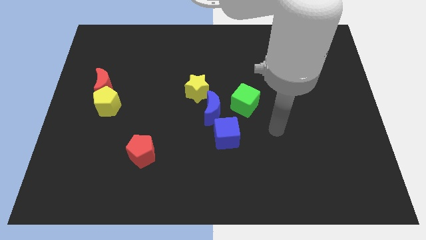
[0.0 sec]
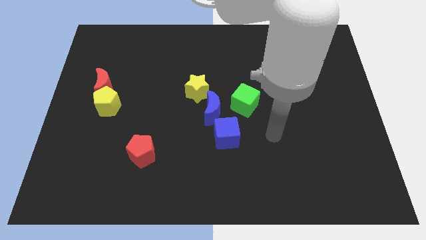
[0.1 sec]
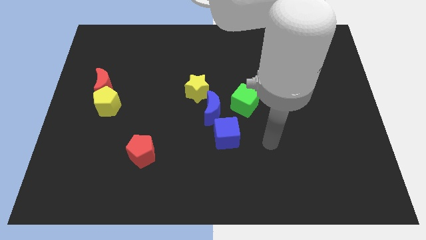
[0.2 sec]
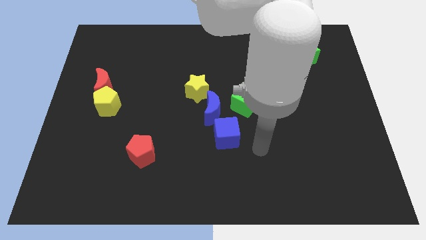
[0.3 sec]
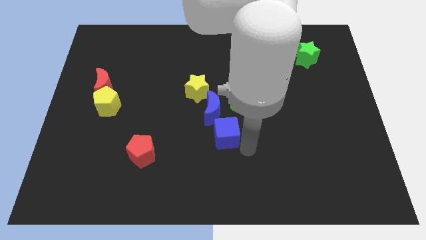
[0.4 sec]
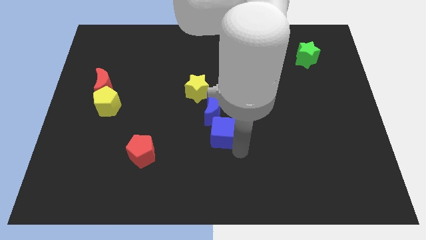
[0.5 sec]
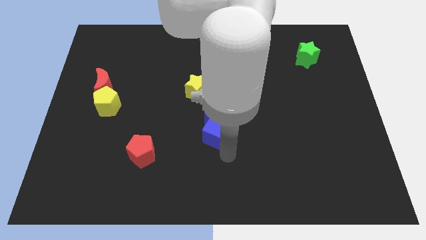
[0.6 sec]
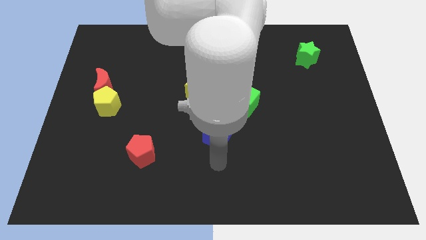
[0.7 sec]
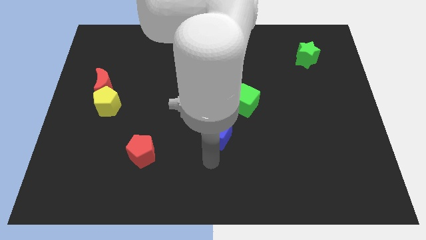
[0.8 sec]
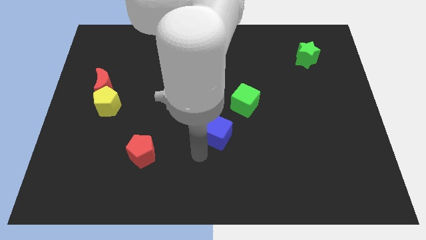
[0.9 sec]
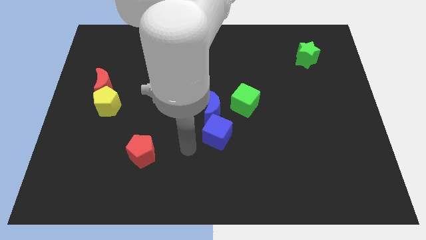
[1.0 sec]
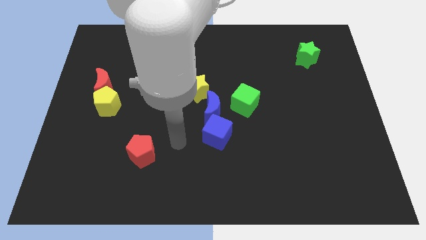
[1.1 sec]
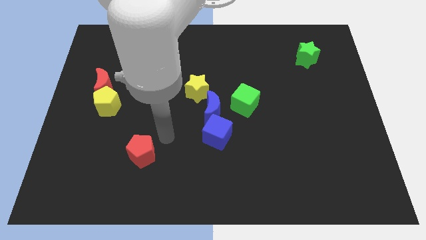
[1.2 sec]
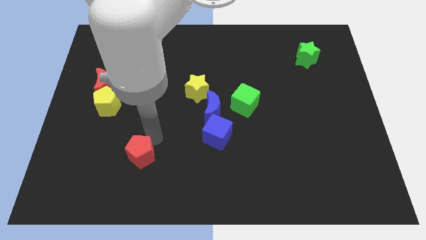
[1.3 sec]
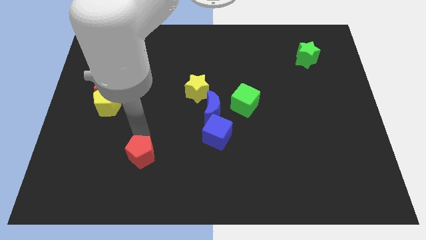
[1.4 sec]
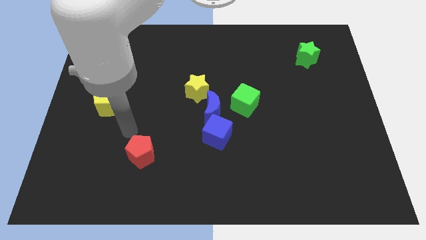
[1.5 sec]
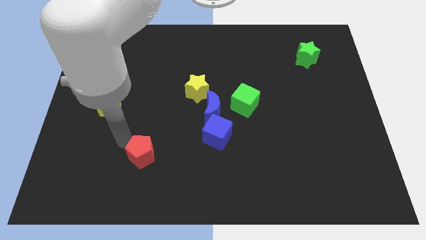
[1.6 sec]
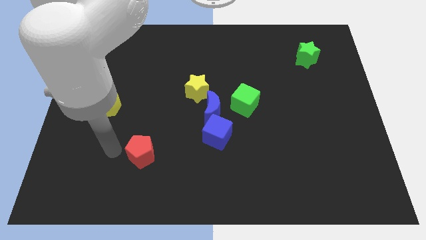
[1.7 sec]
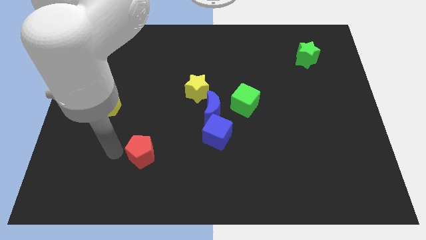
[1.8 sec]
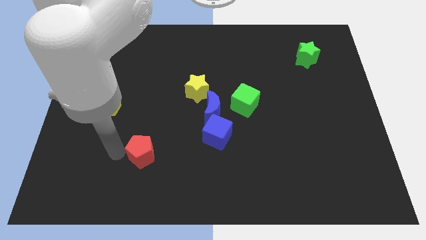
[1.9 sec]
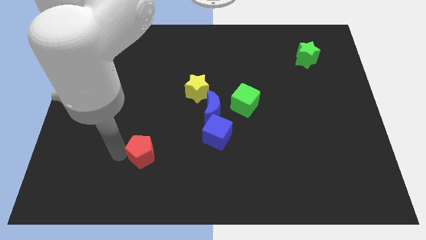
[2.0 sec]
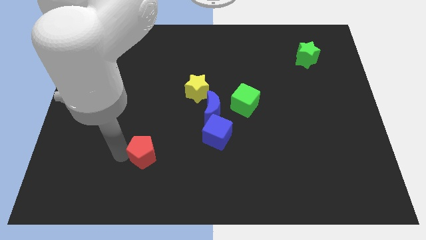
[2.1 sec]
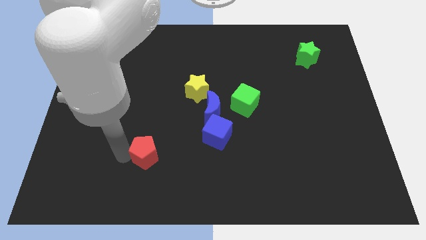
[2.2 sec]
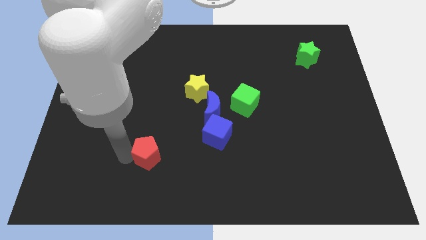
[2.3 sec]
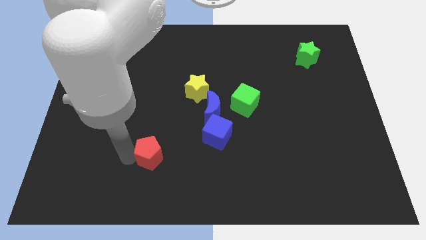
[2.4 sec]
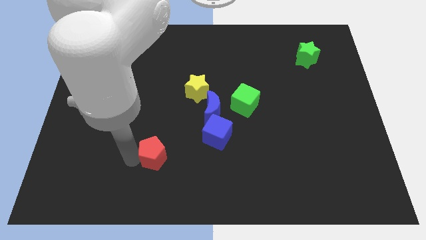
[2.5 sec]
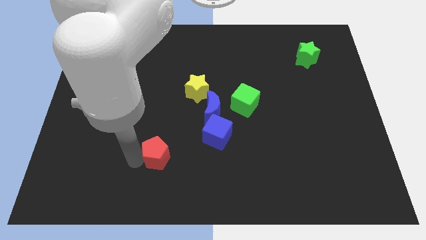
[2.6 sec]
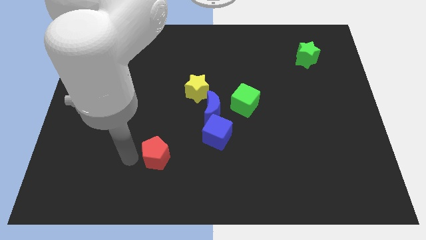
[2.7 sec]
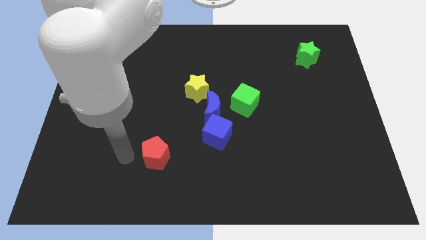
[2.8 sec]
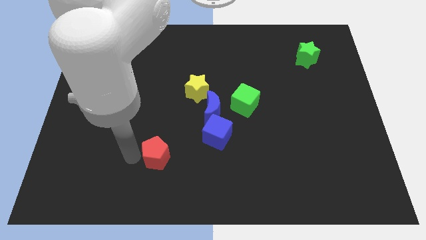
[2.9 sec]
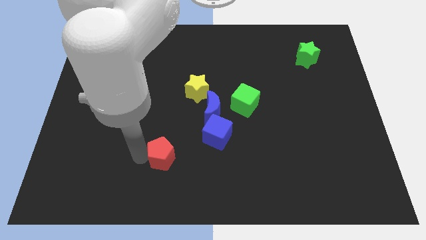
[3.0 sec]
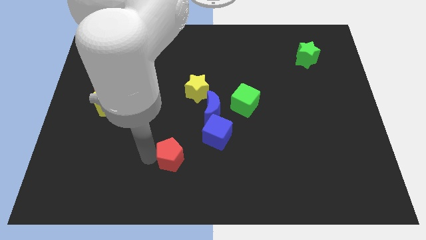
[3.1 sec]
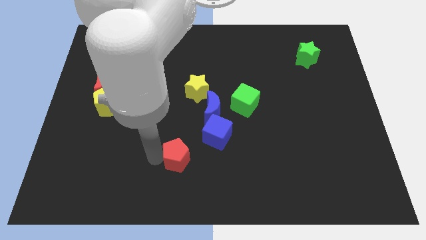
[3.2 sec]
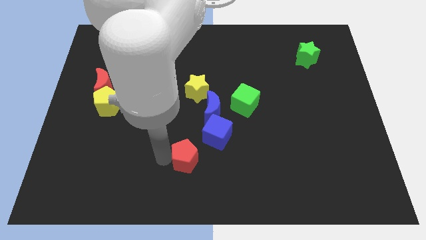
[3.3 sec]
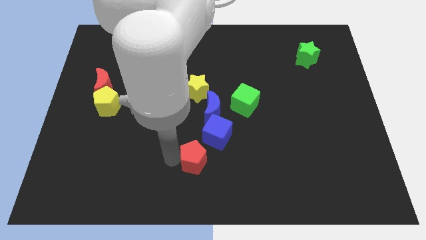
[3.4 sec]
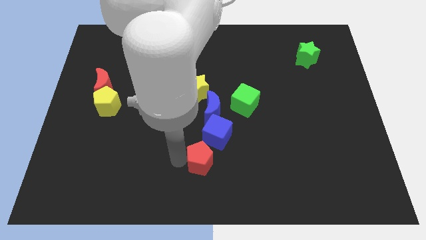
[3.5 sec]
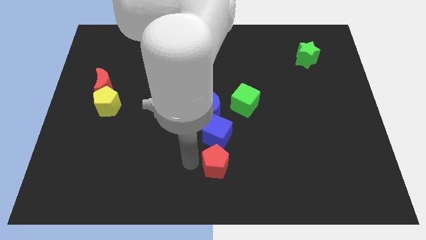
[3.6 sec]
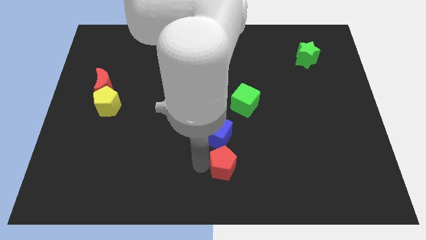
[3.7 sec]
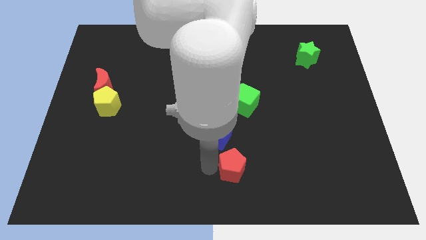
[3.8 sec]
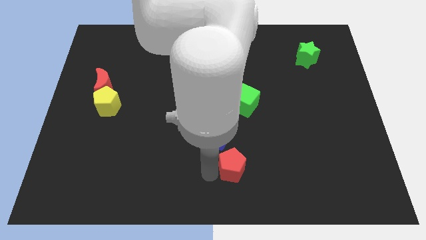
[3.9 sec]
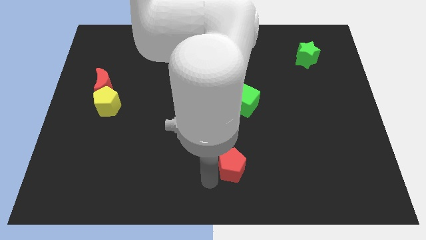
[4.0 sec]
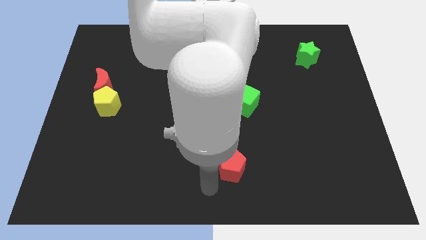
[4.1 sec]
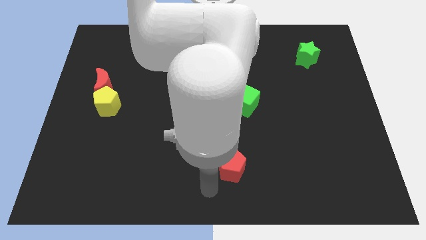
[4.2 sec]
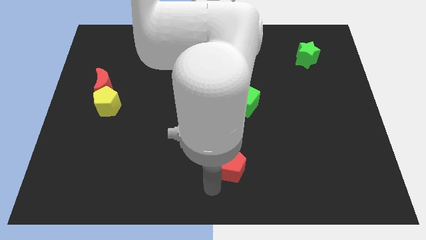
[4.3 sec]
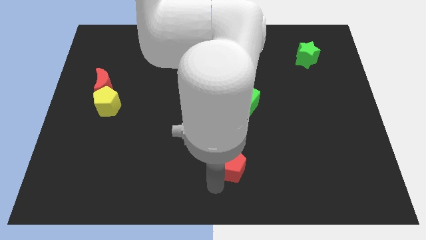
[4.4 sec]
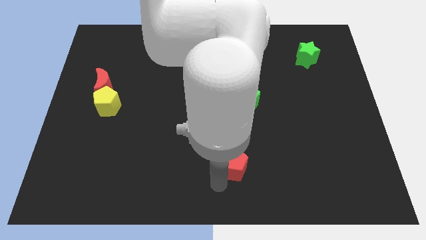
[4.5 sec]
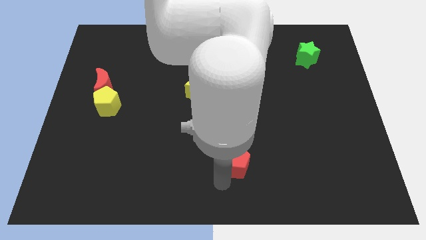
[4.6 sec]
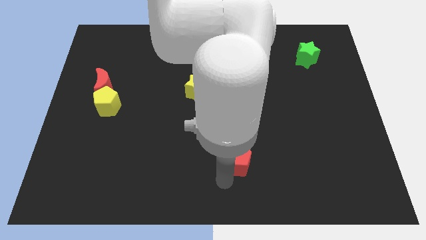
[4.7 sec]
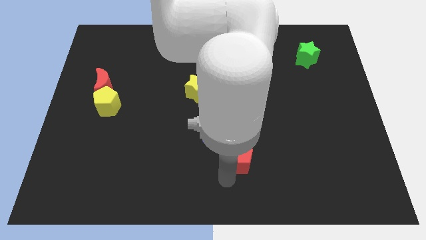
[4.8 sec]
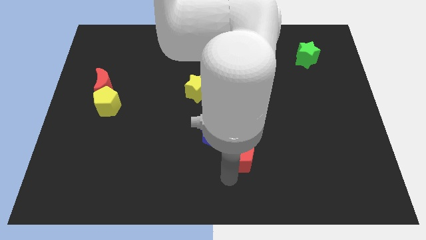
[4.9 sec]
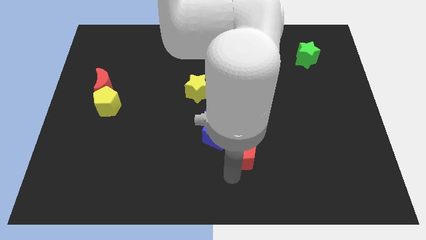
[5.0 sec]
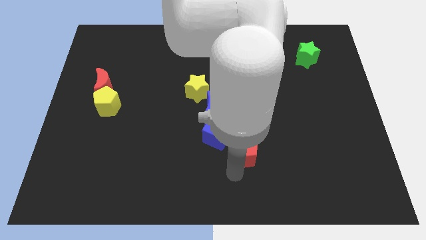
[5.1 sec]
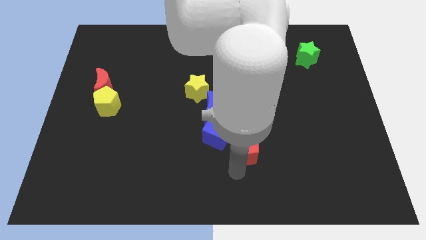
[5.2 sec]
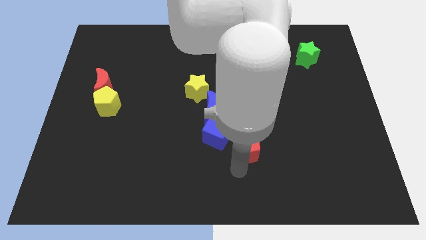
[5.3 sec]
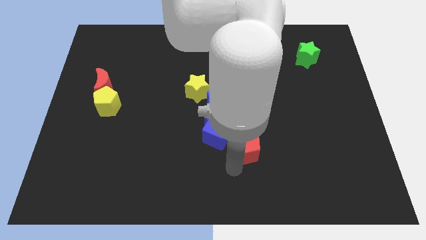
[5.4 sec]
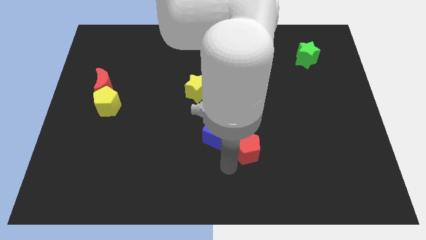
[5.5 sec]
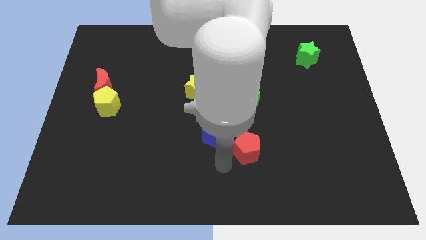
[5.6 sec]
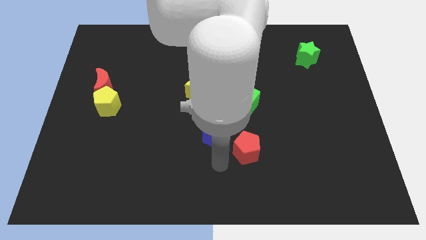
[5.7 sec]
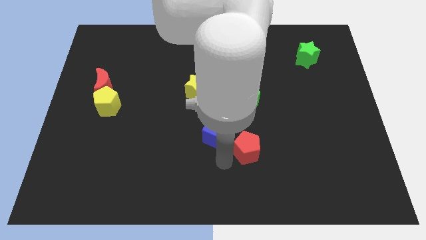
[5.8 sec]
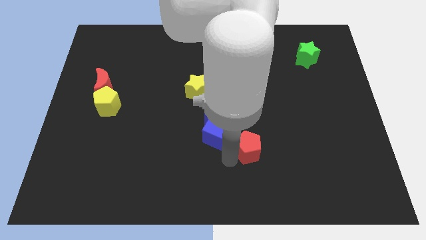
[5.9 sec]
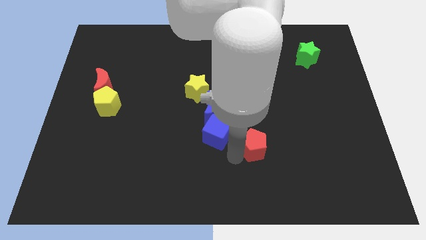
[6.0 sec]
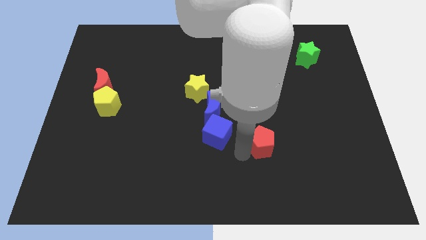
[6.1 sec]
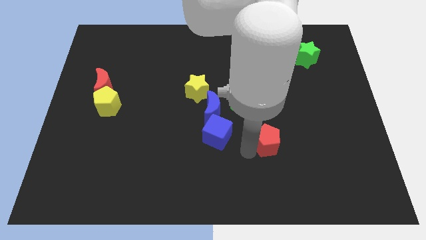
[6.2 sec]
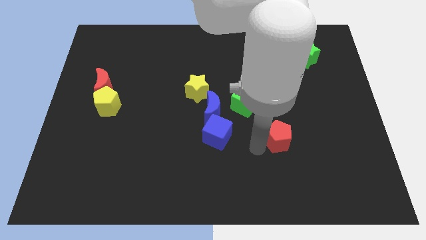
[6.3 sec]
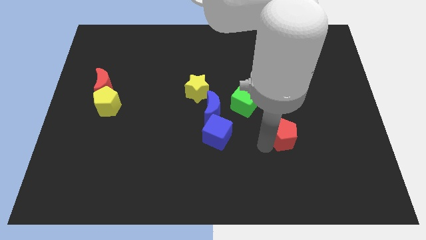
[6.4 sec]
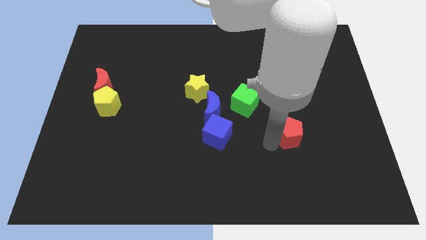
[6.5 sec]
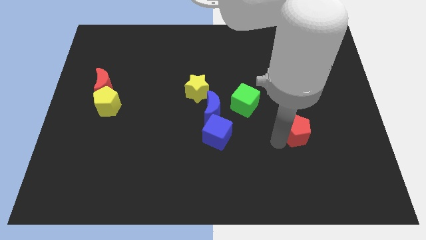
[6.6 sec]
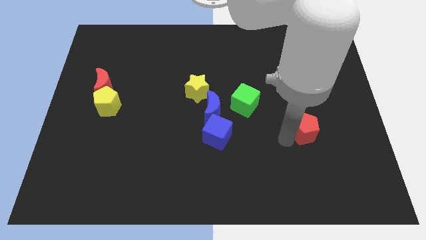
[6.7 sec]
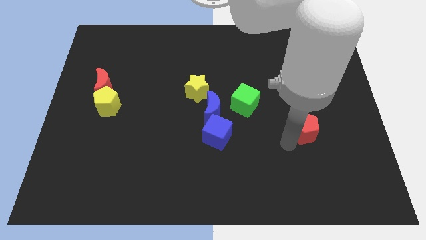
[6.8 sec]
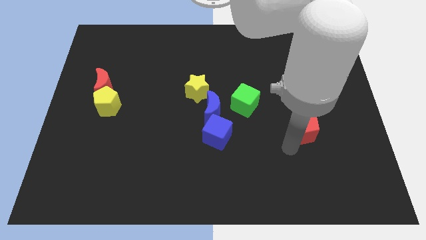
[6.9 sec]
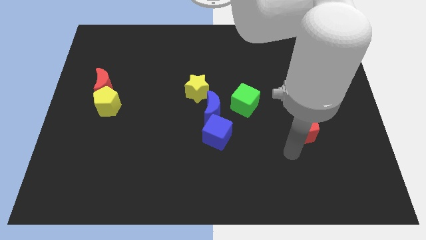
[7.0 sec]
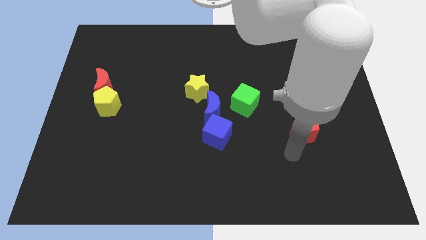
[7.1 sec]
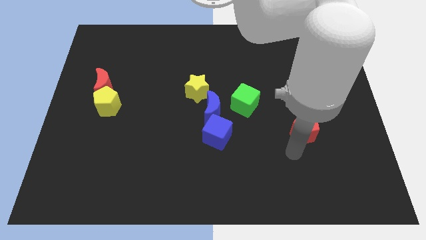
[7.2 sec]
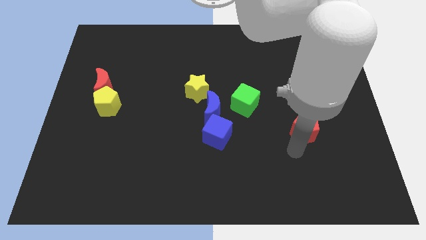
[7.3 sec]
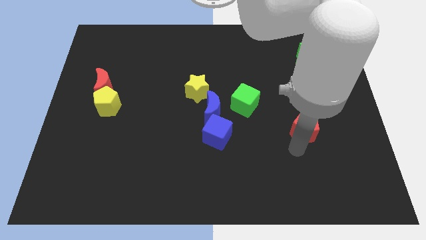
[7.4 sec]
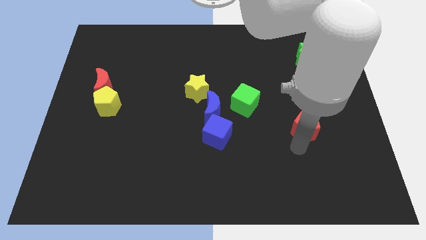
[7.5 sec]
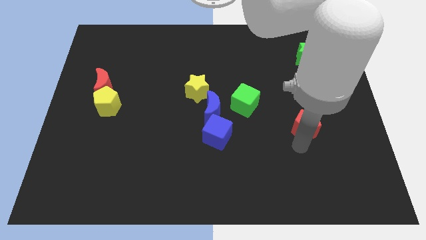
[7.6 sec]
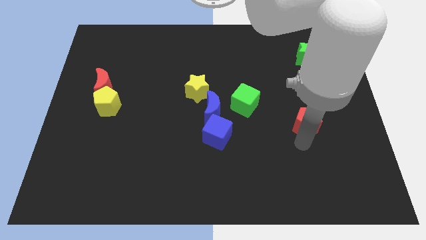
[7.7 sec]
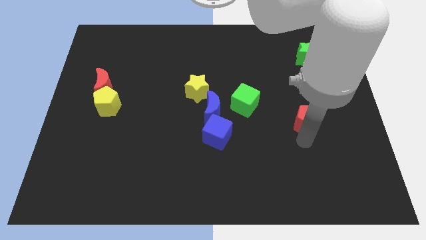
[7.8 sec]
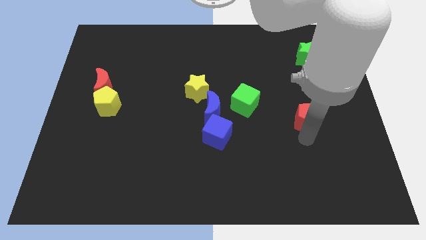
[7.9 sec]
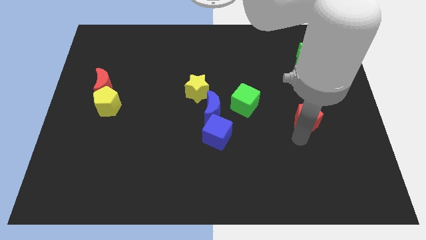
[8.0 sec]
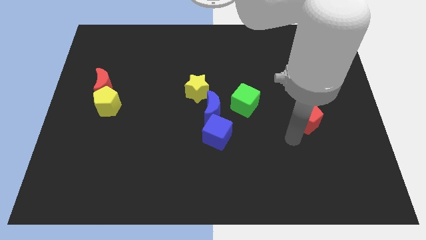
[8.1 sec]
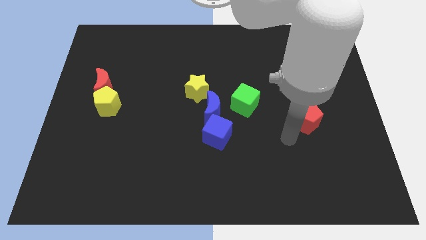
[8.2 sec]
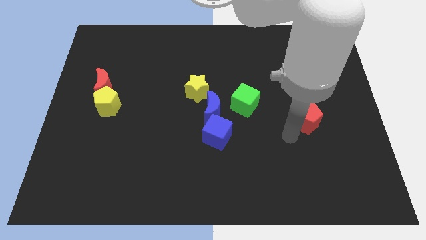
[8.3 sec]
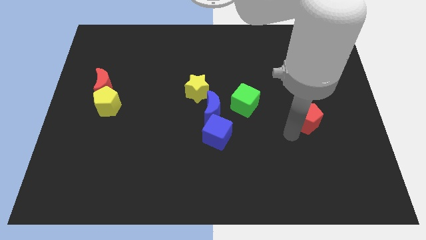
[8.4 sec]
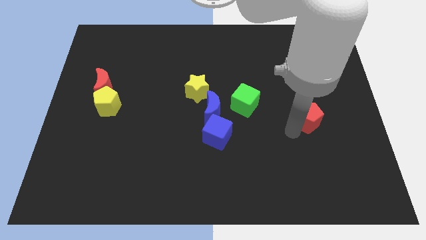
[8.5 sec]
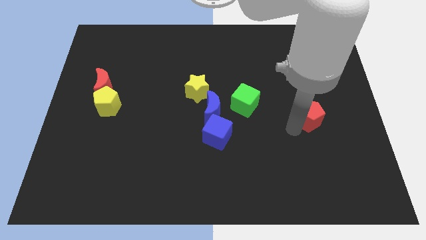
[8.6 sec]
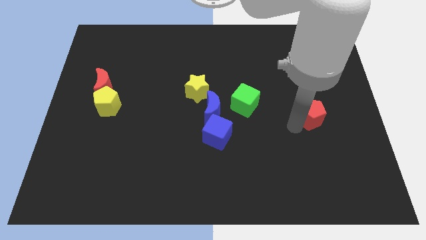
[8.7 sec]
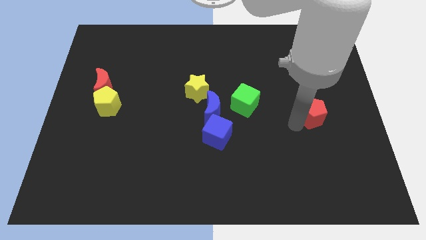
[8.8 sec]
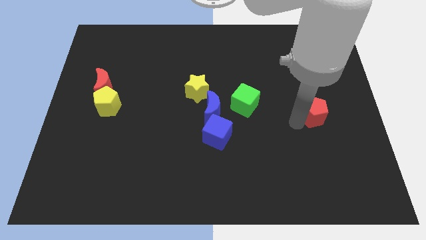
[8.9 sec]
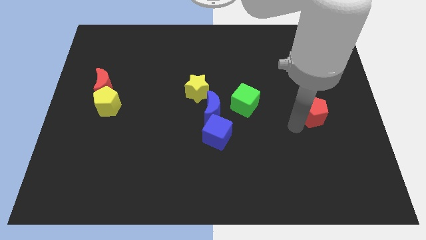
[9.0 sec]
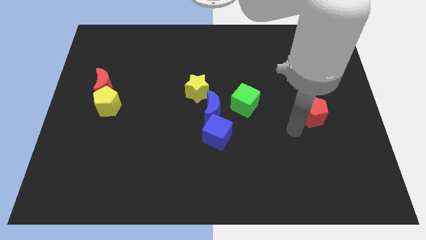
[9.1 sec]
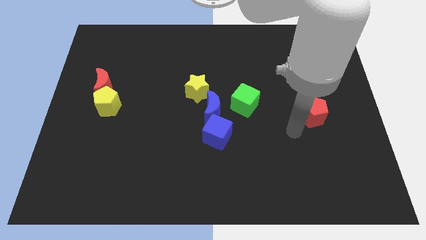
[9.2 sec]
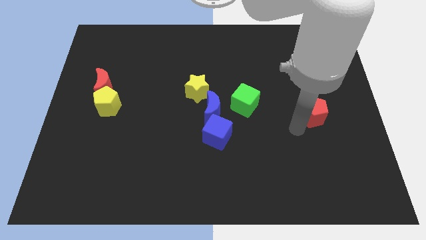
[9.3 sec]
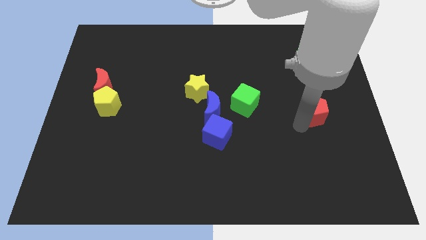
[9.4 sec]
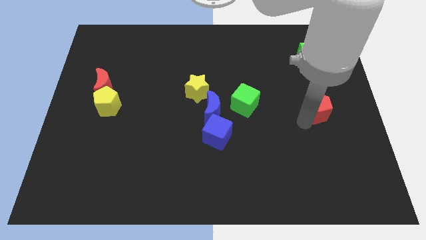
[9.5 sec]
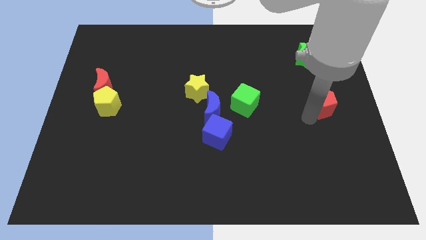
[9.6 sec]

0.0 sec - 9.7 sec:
move the red pentagon to the center right
